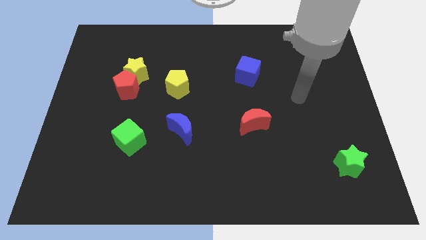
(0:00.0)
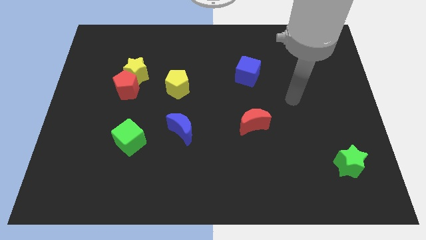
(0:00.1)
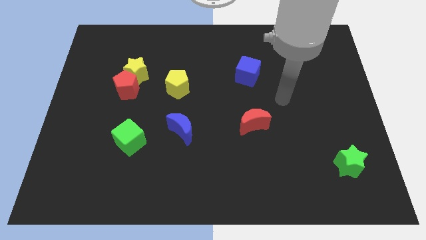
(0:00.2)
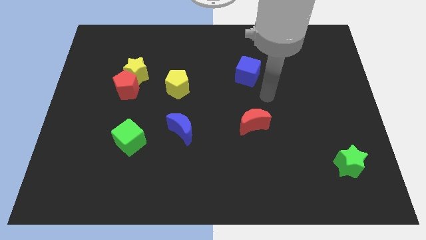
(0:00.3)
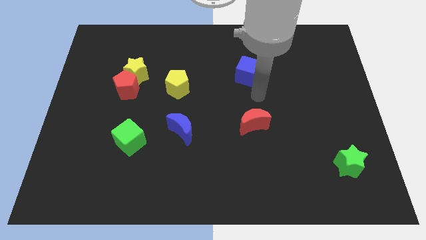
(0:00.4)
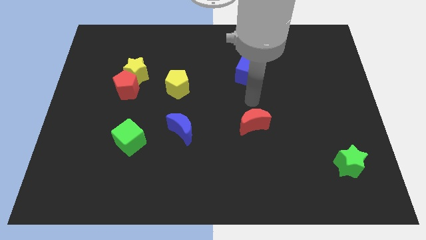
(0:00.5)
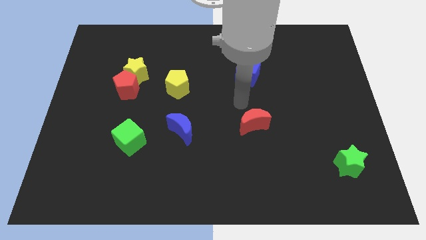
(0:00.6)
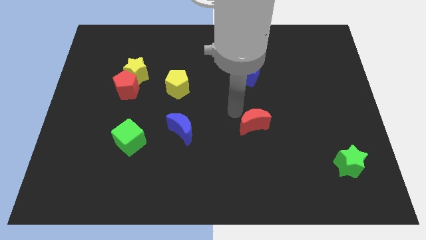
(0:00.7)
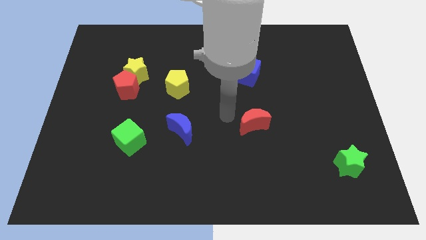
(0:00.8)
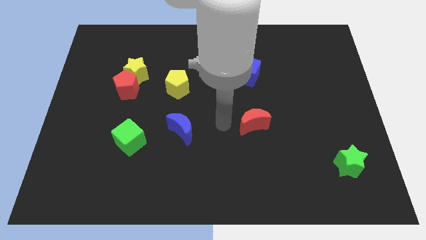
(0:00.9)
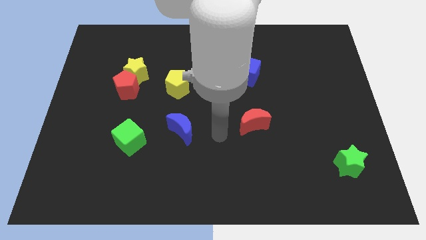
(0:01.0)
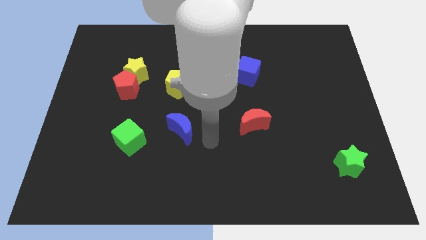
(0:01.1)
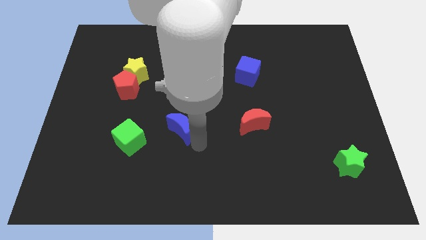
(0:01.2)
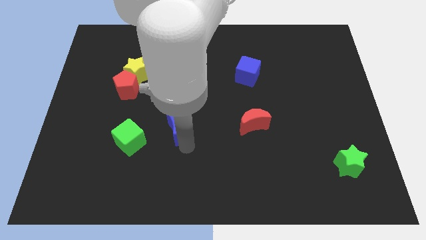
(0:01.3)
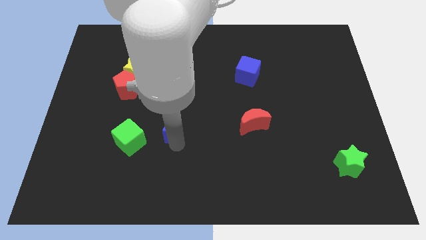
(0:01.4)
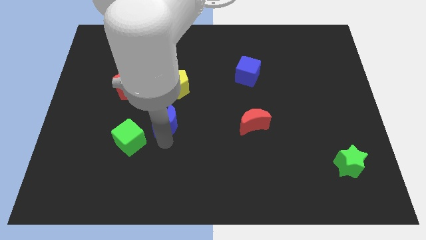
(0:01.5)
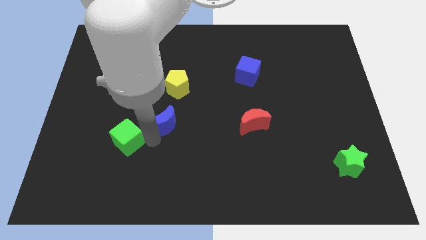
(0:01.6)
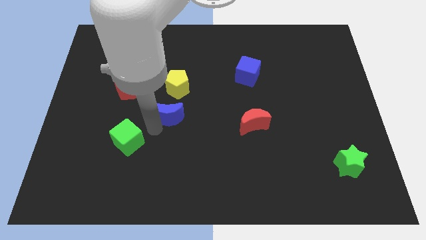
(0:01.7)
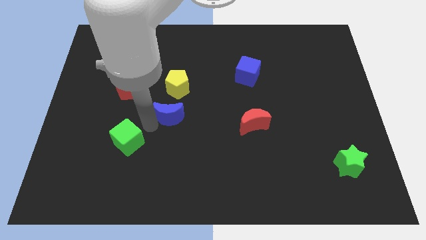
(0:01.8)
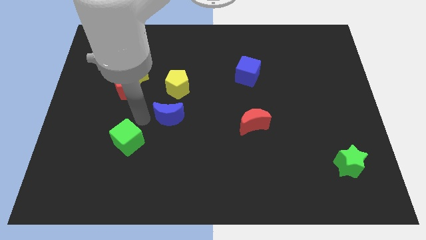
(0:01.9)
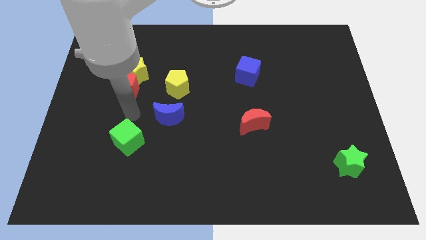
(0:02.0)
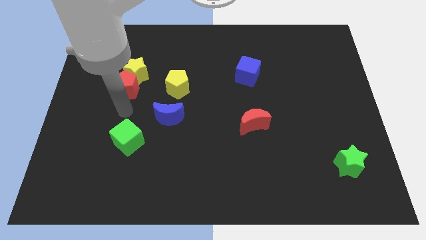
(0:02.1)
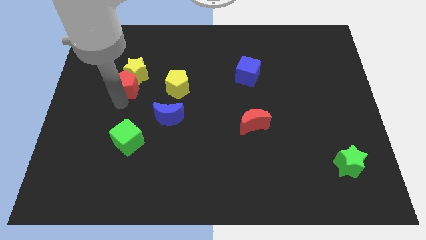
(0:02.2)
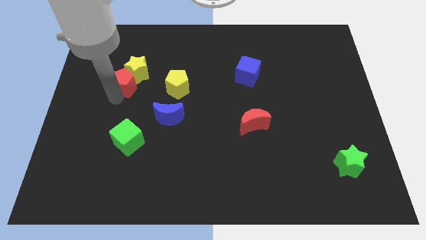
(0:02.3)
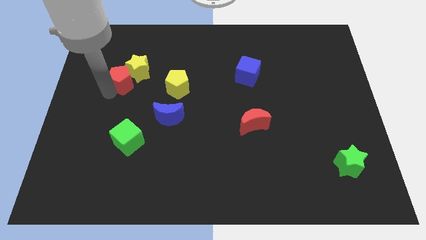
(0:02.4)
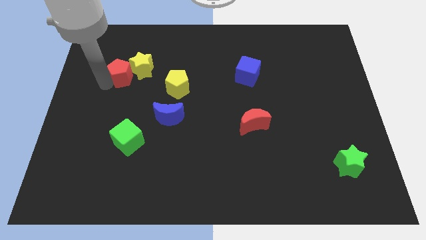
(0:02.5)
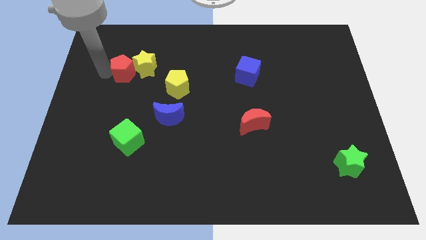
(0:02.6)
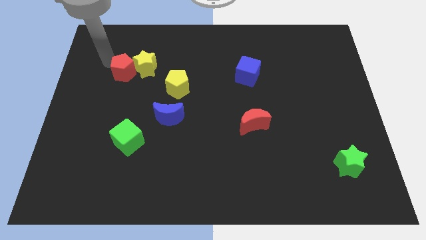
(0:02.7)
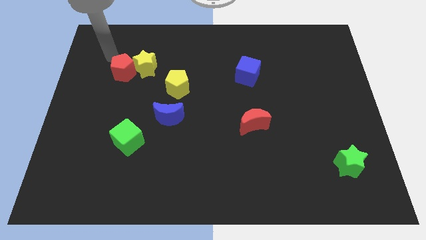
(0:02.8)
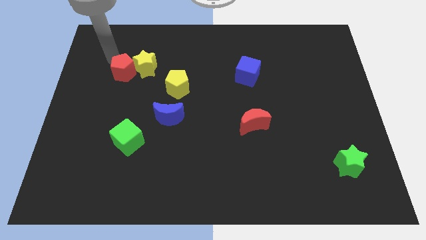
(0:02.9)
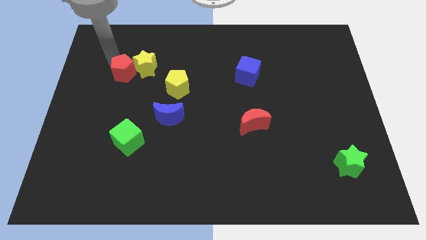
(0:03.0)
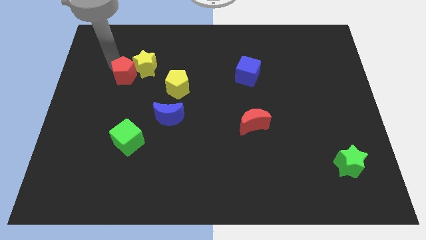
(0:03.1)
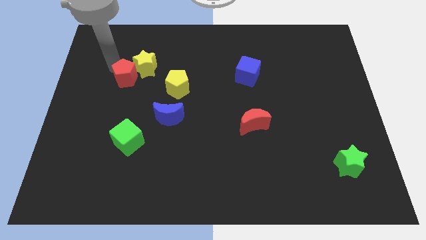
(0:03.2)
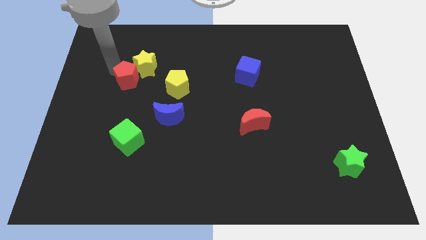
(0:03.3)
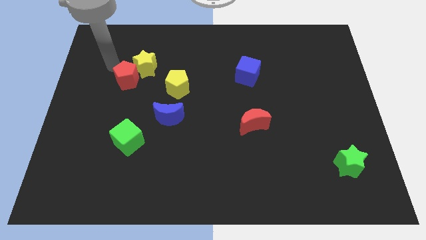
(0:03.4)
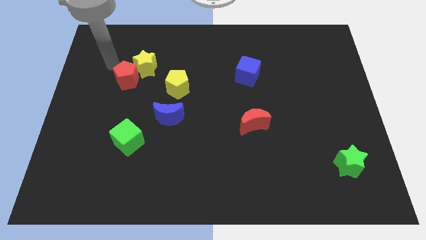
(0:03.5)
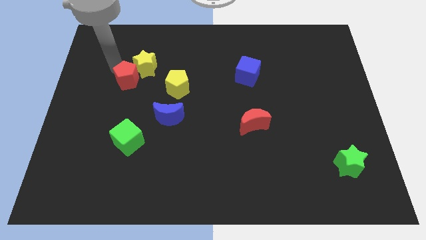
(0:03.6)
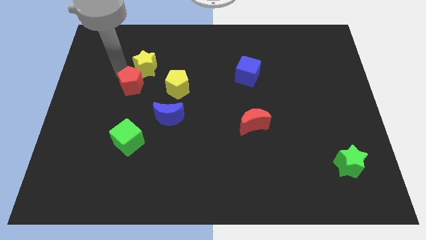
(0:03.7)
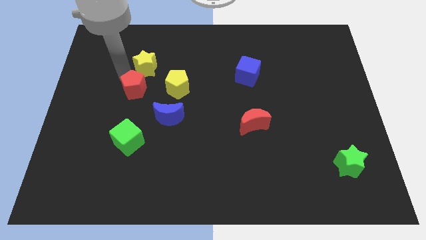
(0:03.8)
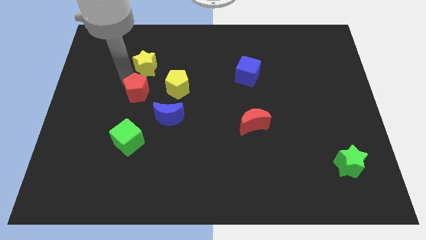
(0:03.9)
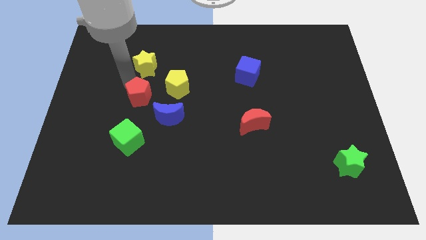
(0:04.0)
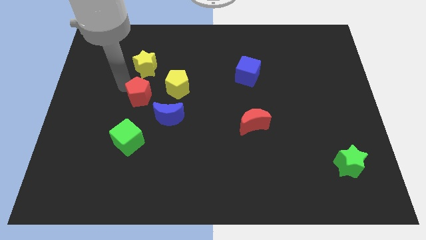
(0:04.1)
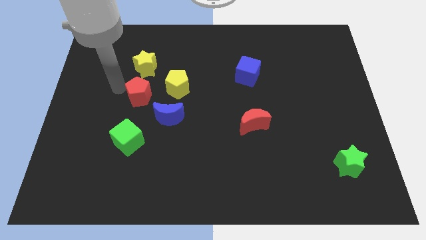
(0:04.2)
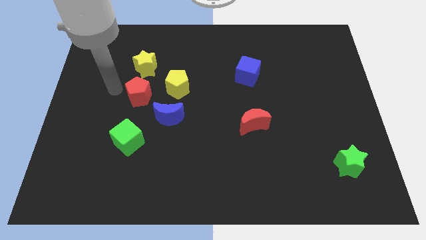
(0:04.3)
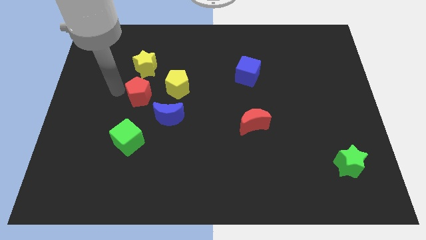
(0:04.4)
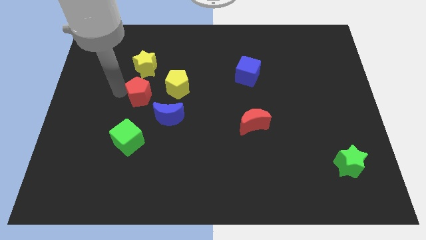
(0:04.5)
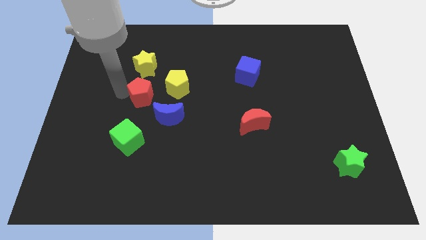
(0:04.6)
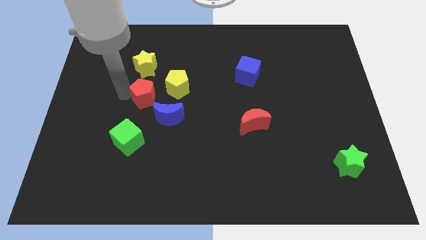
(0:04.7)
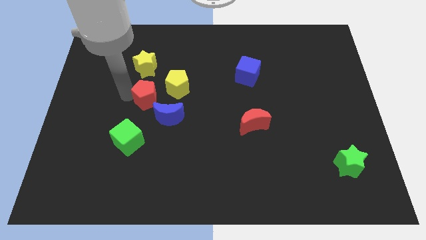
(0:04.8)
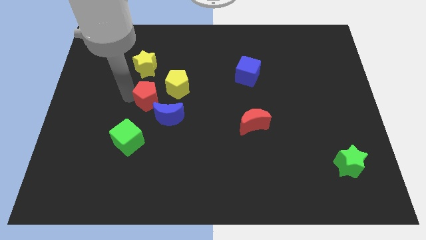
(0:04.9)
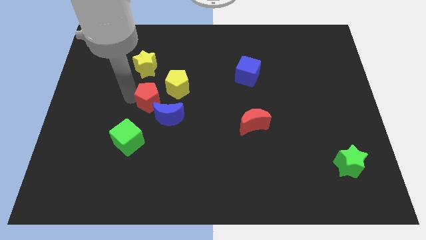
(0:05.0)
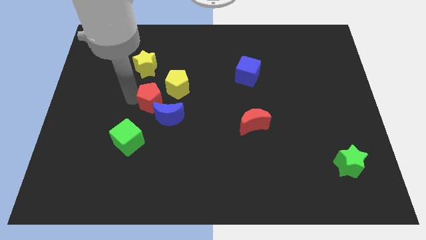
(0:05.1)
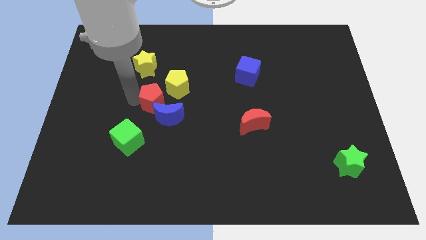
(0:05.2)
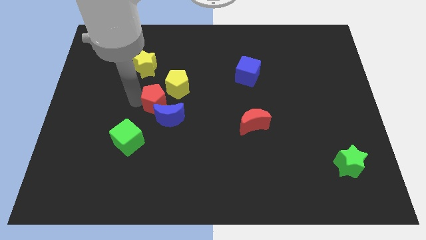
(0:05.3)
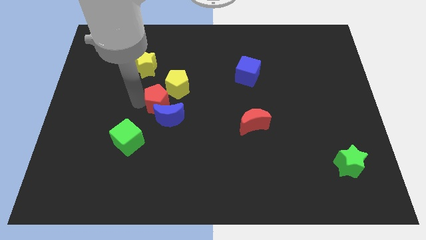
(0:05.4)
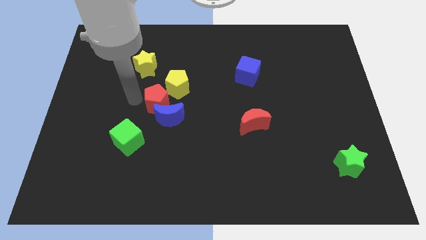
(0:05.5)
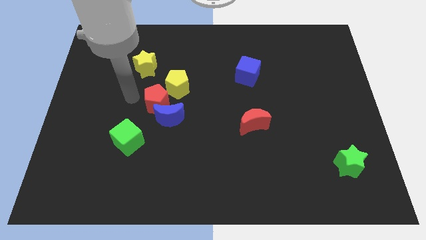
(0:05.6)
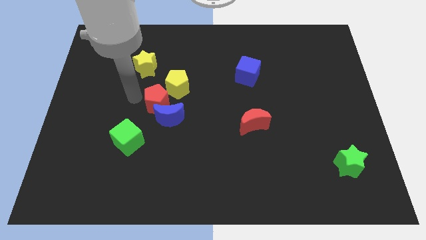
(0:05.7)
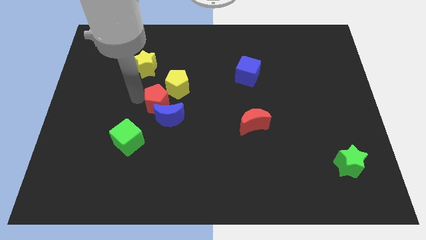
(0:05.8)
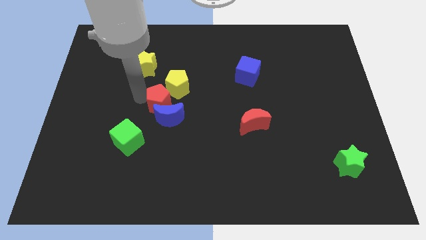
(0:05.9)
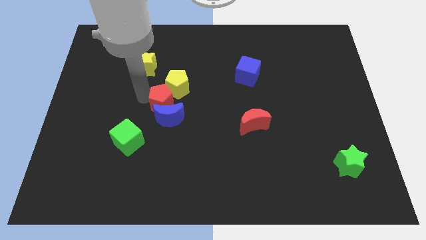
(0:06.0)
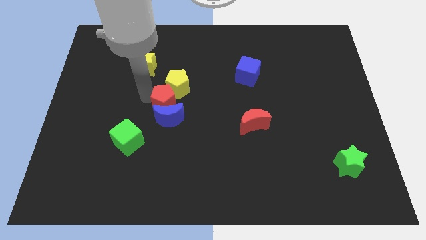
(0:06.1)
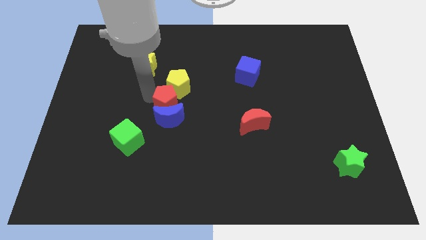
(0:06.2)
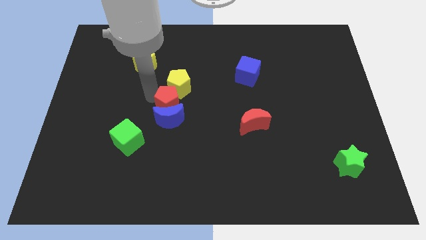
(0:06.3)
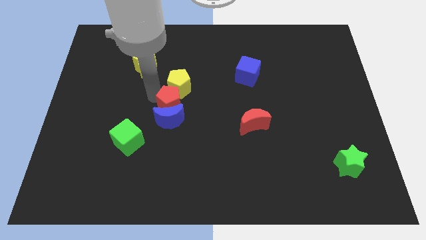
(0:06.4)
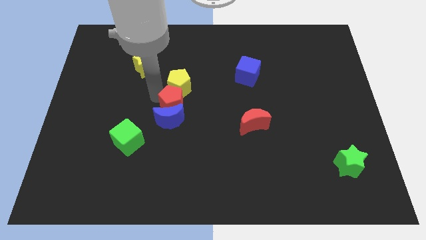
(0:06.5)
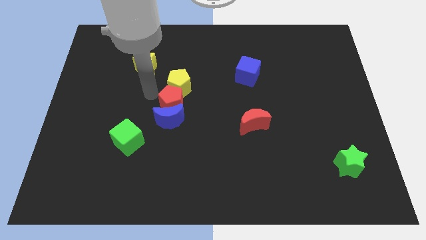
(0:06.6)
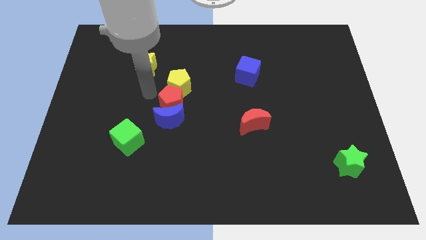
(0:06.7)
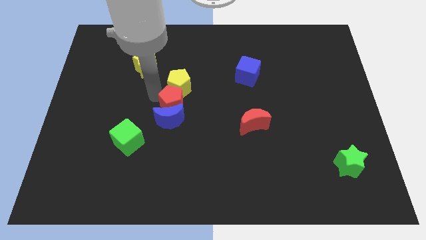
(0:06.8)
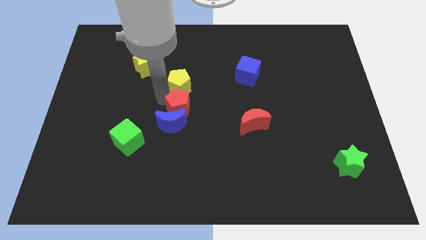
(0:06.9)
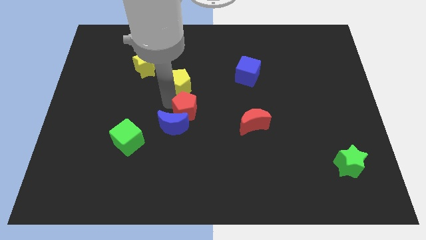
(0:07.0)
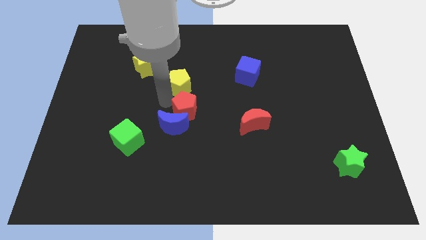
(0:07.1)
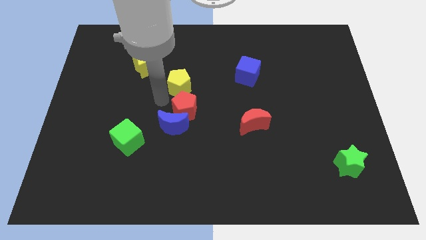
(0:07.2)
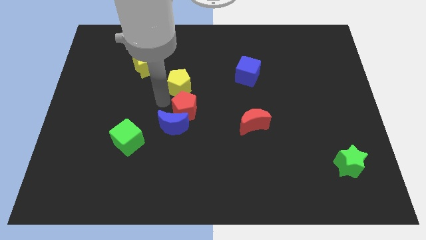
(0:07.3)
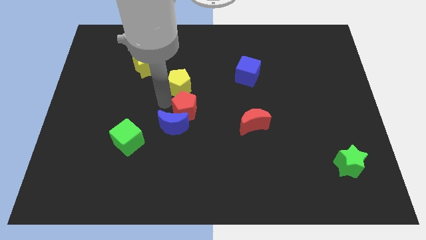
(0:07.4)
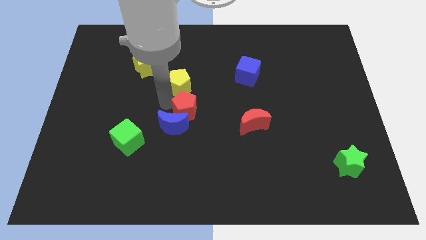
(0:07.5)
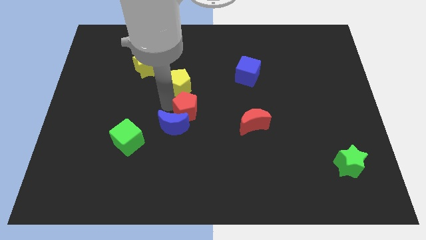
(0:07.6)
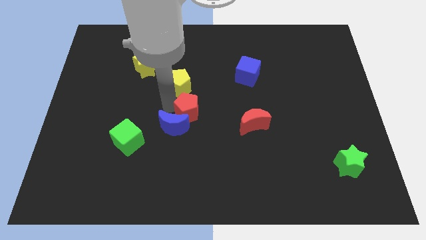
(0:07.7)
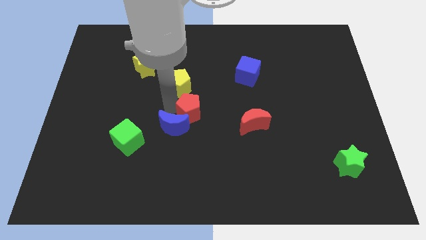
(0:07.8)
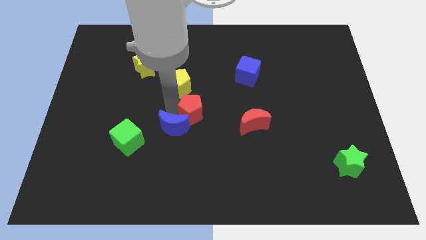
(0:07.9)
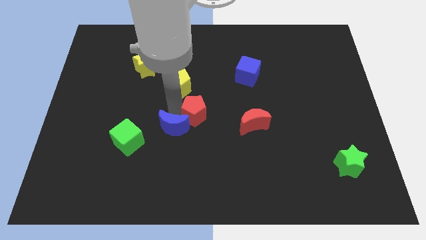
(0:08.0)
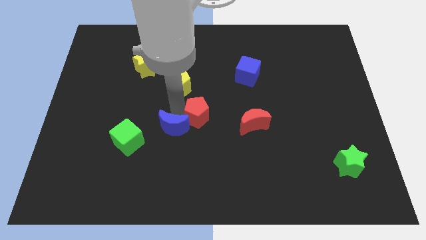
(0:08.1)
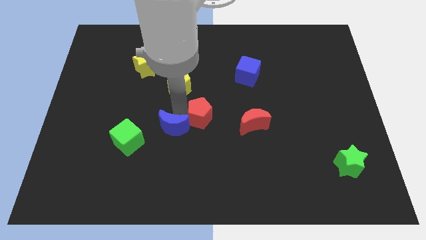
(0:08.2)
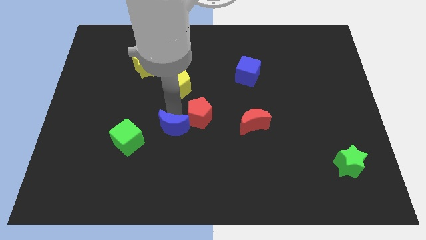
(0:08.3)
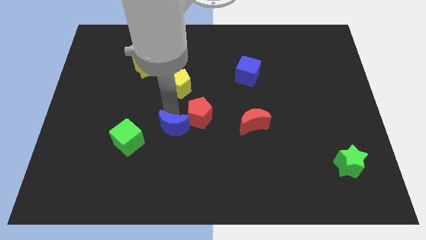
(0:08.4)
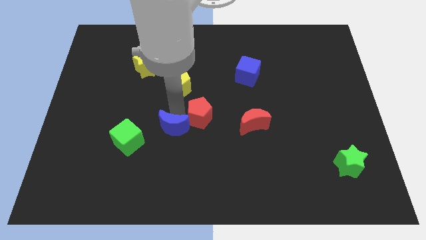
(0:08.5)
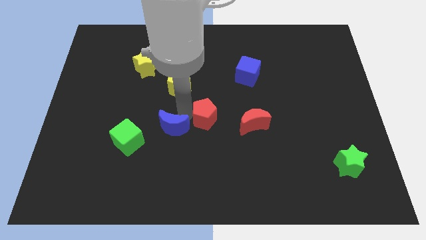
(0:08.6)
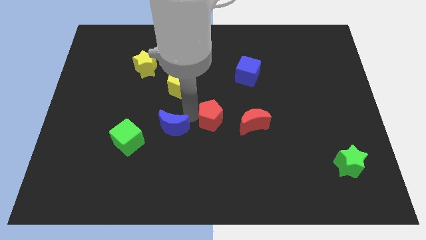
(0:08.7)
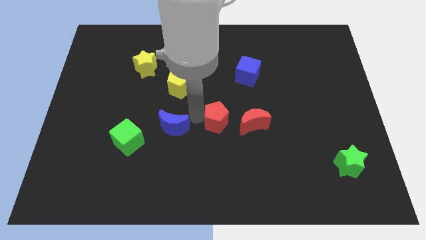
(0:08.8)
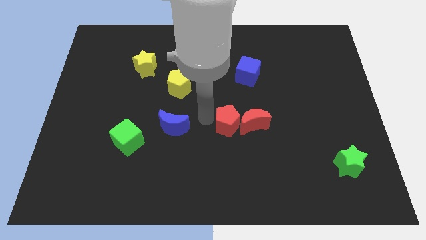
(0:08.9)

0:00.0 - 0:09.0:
slide the red pentagon to the red moon
